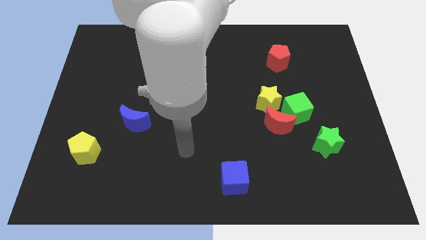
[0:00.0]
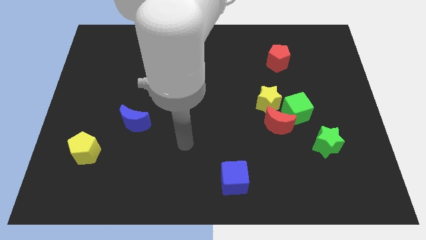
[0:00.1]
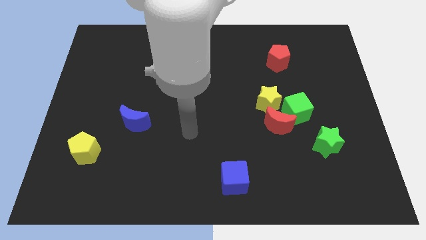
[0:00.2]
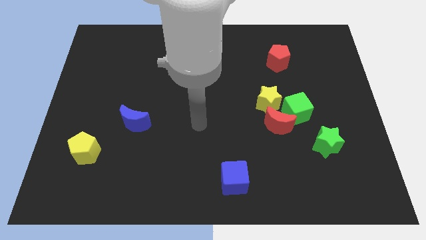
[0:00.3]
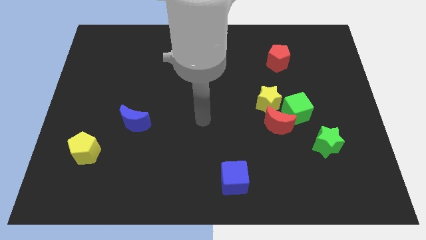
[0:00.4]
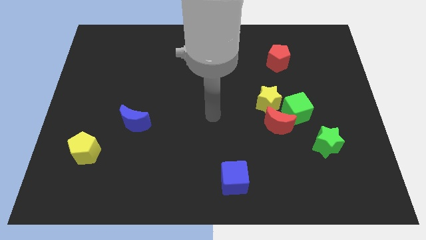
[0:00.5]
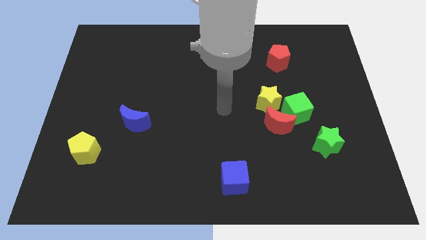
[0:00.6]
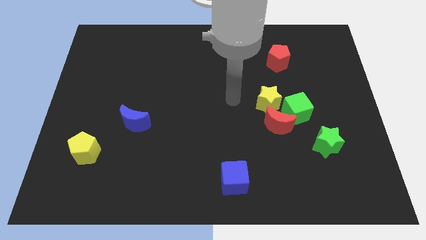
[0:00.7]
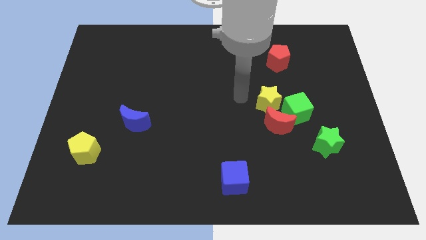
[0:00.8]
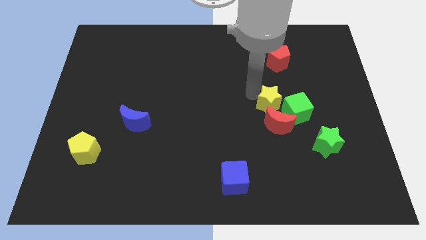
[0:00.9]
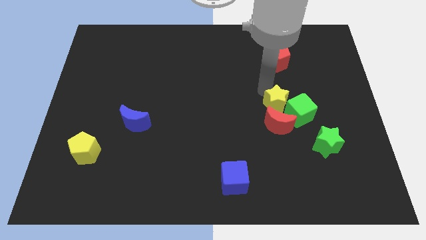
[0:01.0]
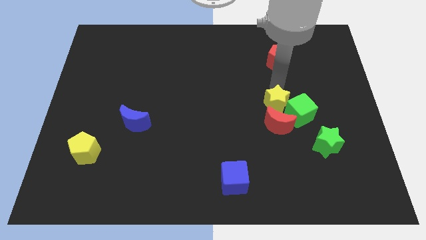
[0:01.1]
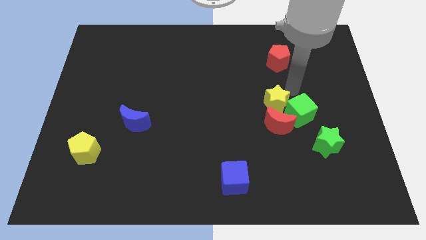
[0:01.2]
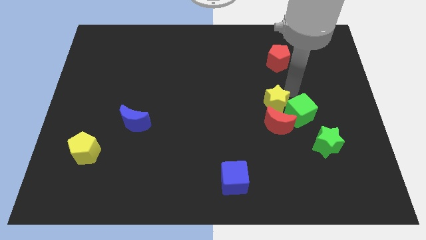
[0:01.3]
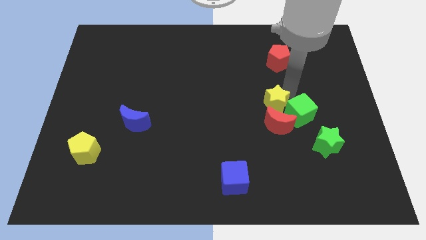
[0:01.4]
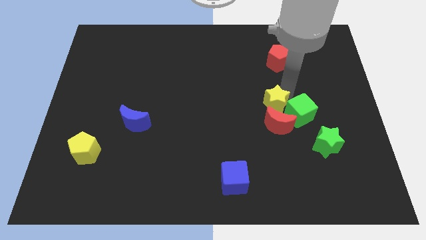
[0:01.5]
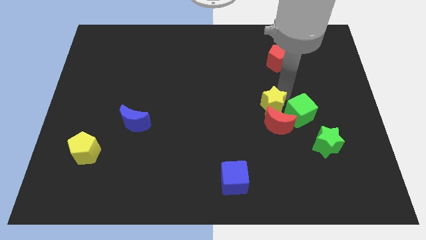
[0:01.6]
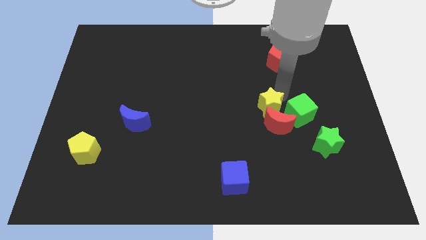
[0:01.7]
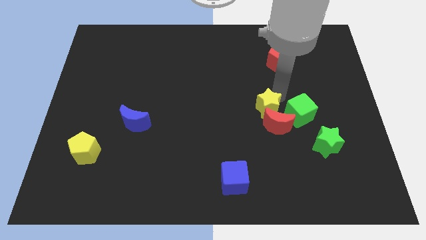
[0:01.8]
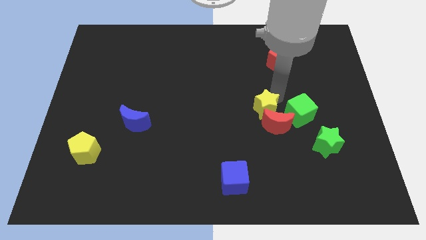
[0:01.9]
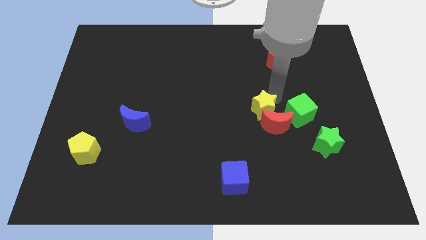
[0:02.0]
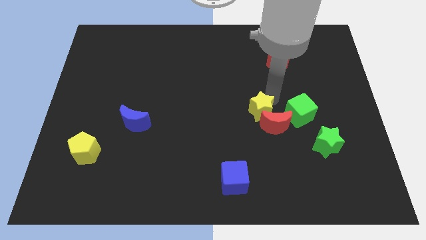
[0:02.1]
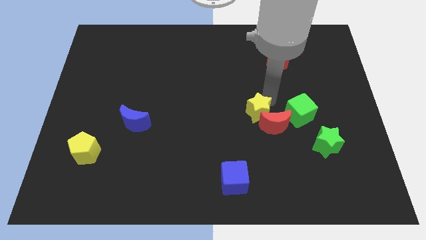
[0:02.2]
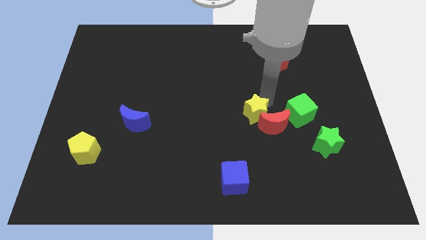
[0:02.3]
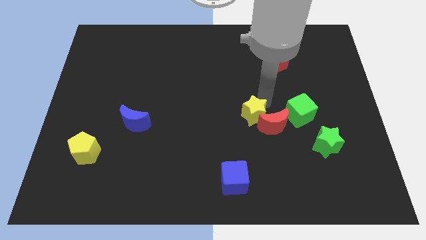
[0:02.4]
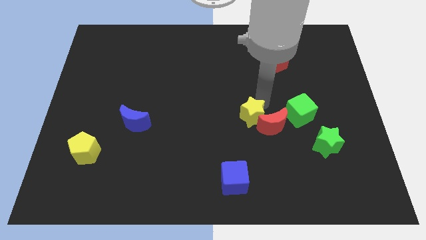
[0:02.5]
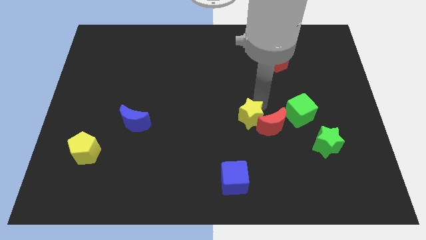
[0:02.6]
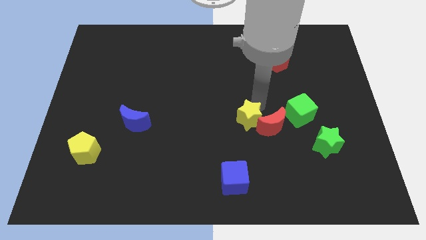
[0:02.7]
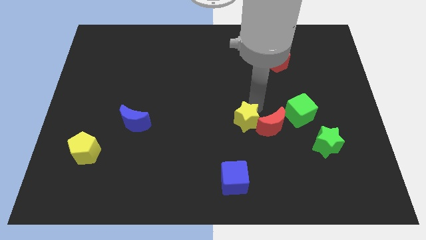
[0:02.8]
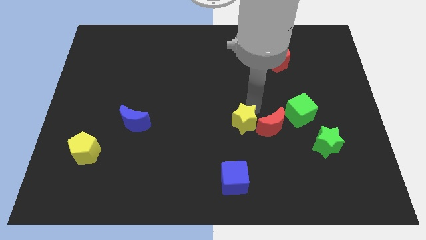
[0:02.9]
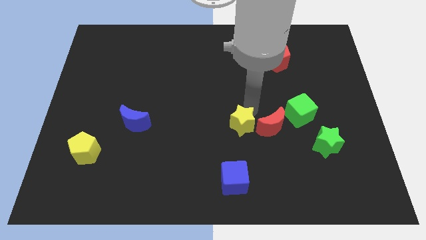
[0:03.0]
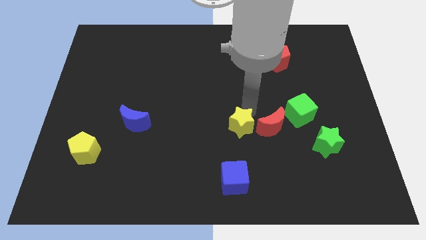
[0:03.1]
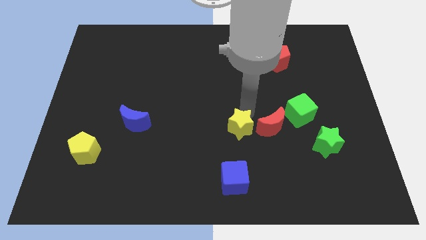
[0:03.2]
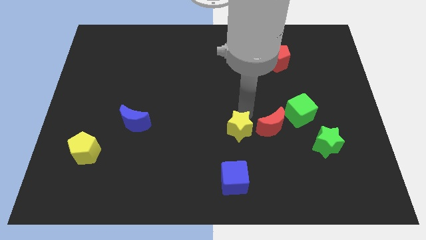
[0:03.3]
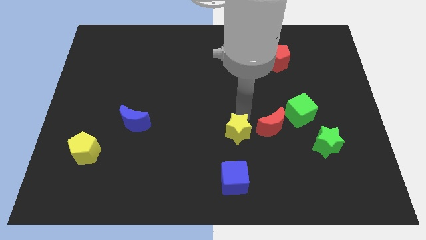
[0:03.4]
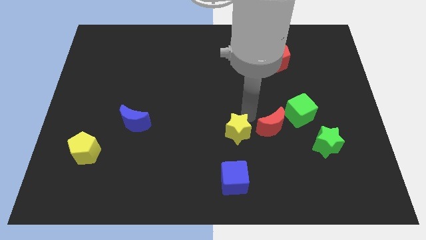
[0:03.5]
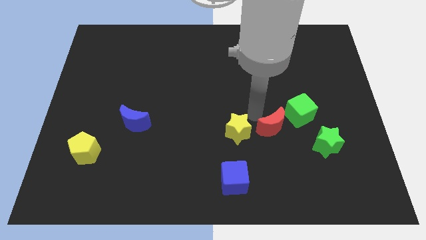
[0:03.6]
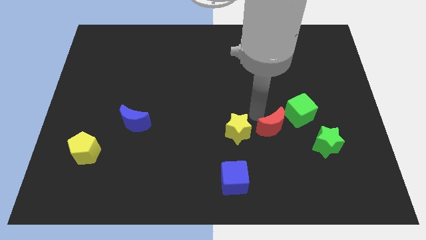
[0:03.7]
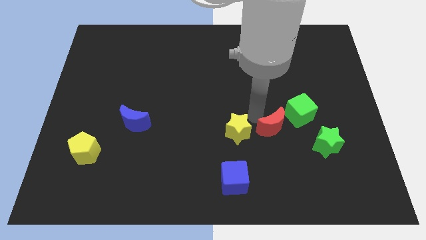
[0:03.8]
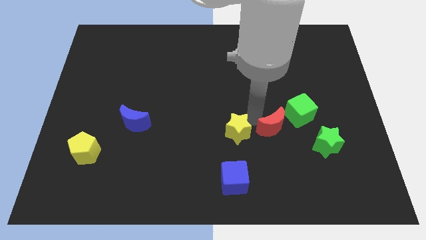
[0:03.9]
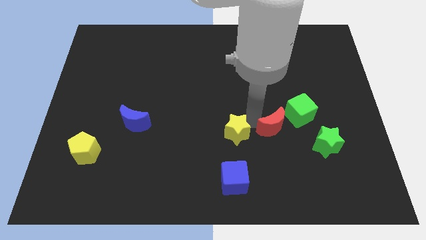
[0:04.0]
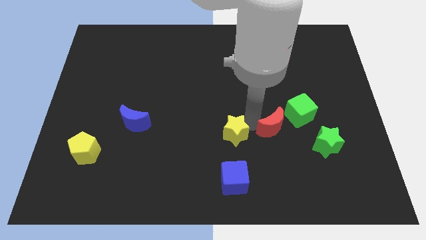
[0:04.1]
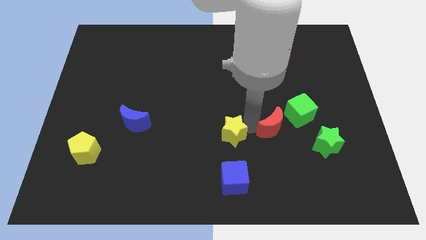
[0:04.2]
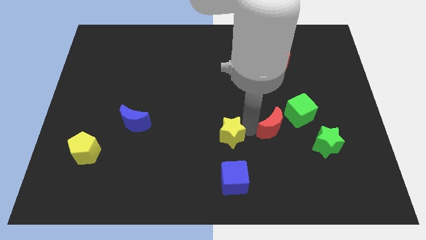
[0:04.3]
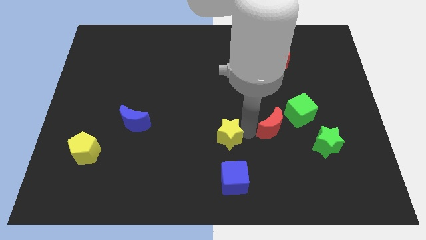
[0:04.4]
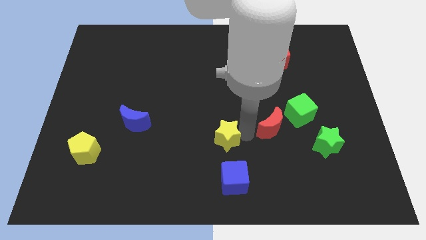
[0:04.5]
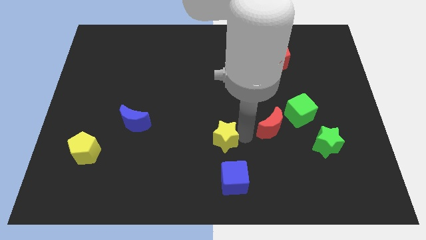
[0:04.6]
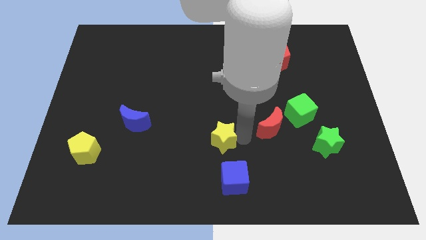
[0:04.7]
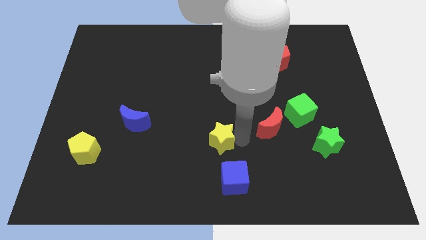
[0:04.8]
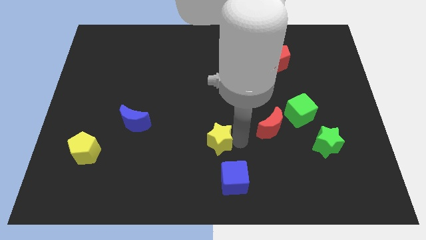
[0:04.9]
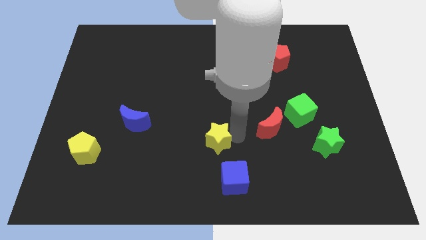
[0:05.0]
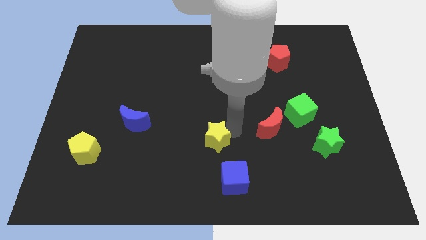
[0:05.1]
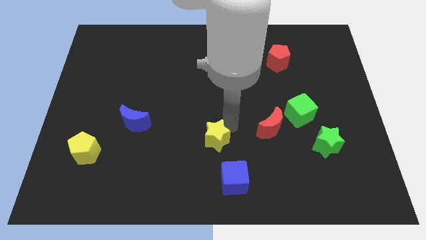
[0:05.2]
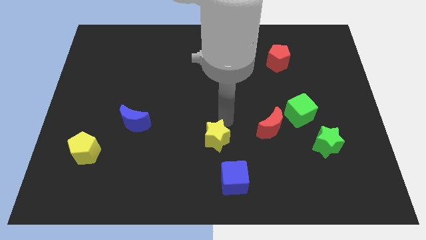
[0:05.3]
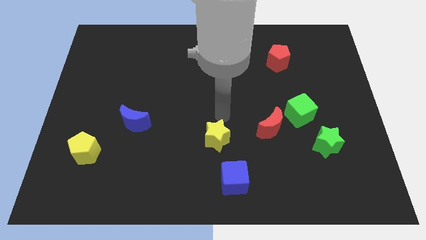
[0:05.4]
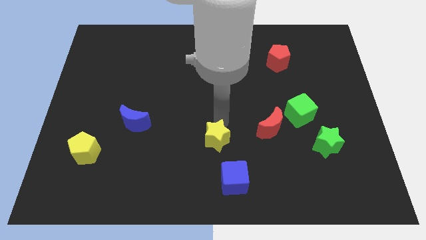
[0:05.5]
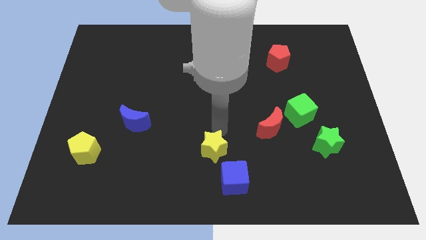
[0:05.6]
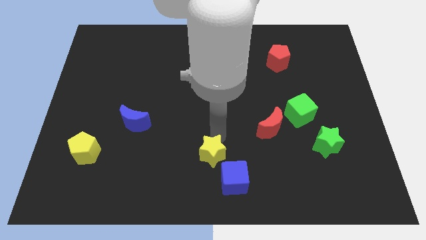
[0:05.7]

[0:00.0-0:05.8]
slide the yellow star to the bottom
